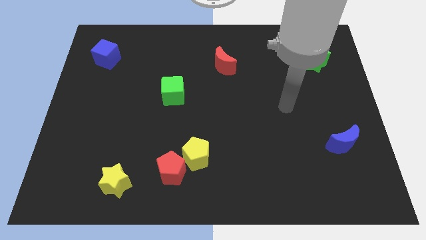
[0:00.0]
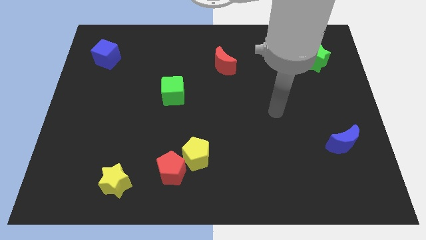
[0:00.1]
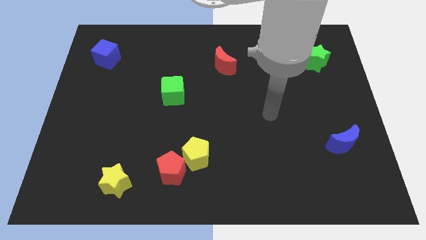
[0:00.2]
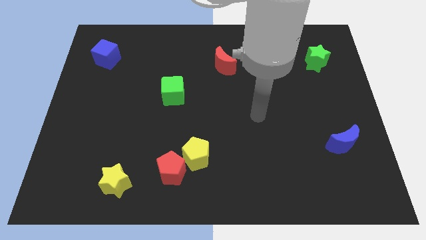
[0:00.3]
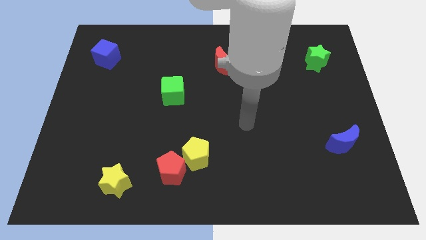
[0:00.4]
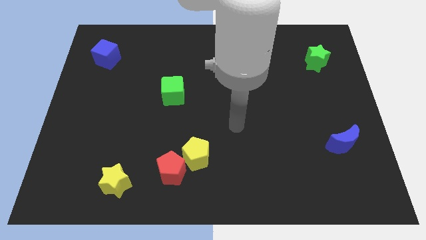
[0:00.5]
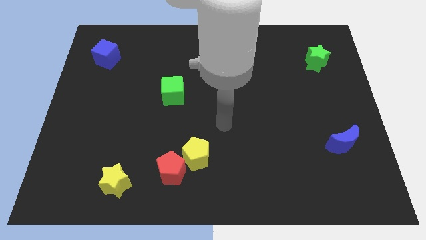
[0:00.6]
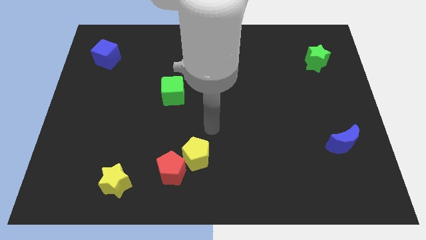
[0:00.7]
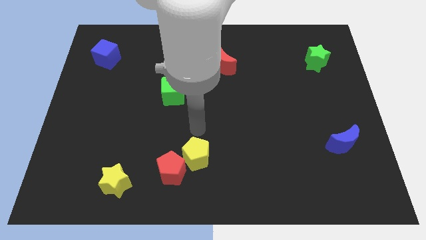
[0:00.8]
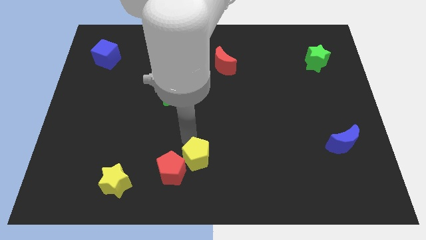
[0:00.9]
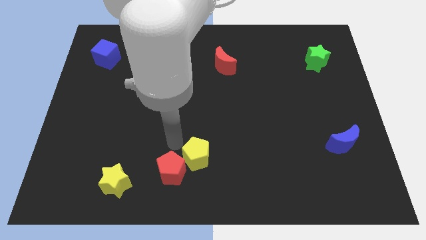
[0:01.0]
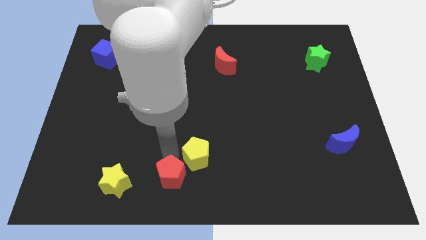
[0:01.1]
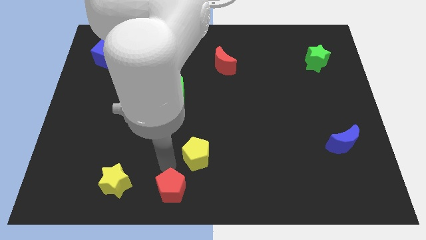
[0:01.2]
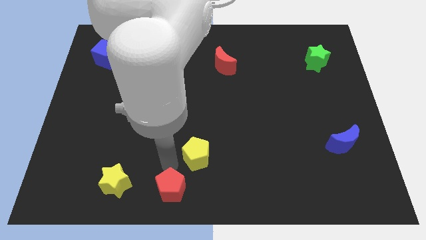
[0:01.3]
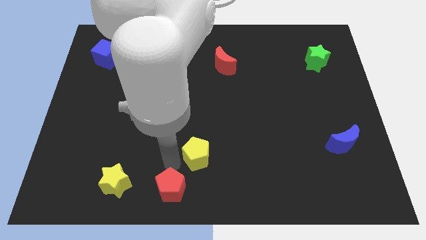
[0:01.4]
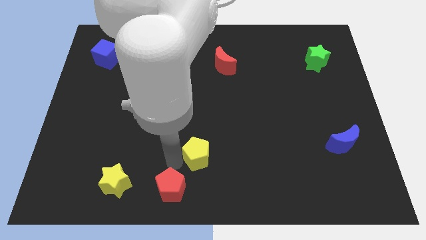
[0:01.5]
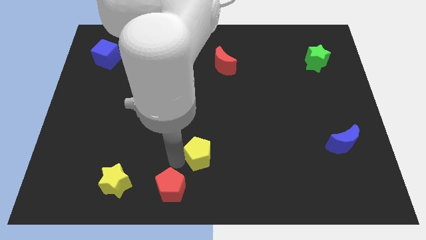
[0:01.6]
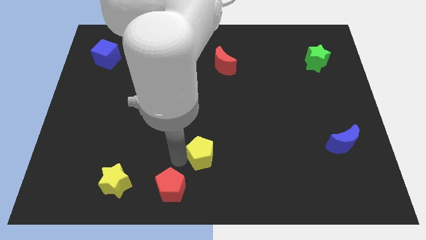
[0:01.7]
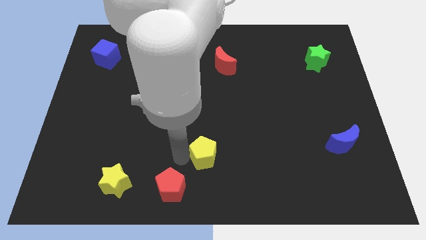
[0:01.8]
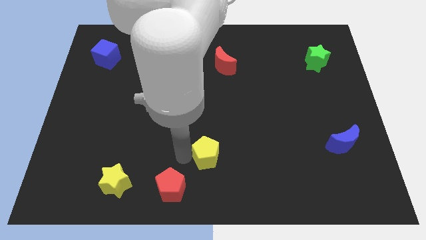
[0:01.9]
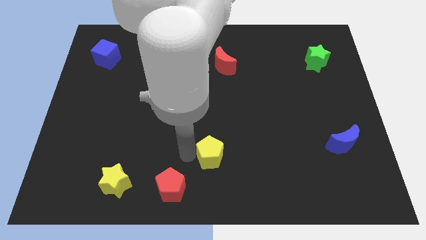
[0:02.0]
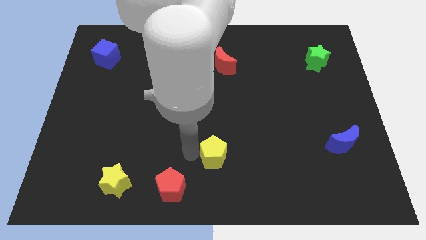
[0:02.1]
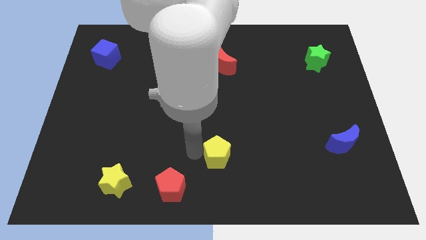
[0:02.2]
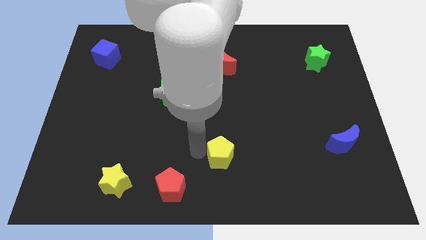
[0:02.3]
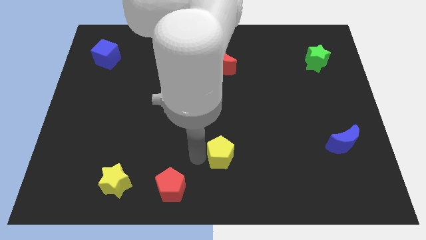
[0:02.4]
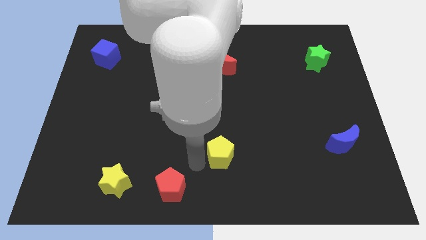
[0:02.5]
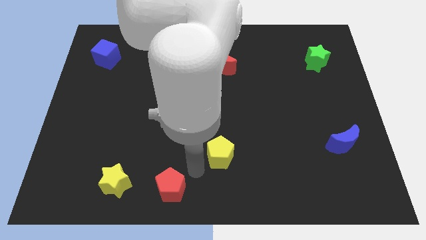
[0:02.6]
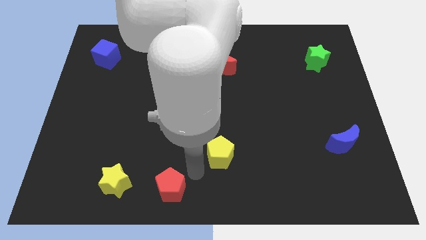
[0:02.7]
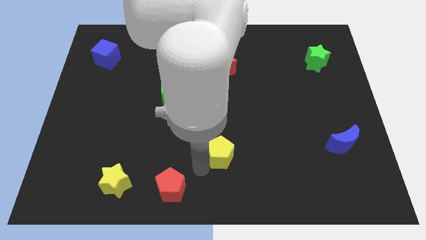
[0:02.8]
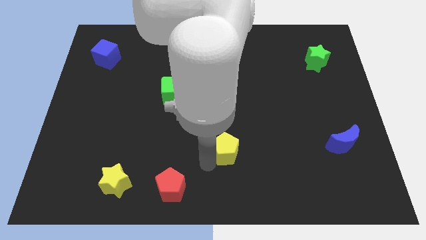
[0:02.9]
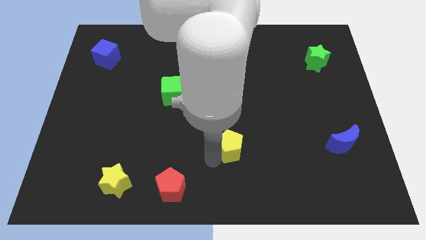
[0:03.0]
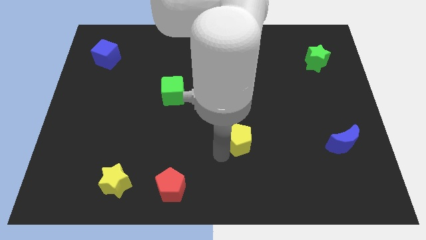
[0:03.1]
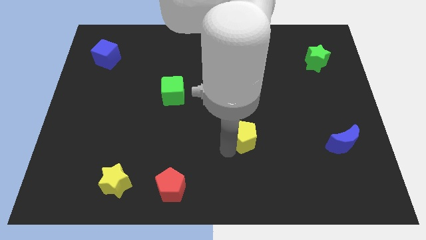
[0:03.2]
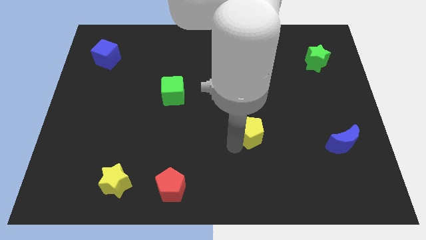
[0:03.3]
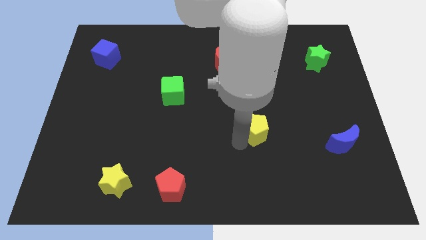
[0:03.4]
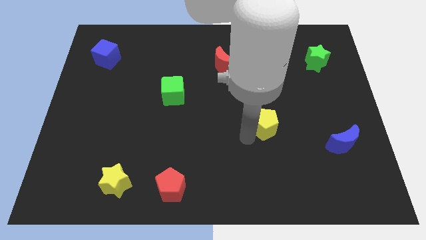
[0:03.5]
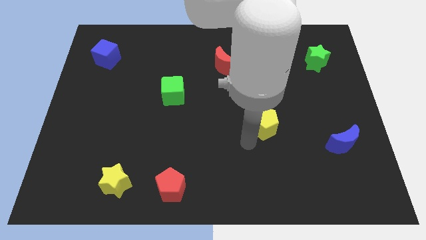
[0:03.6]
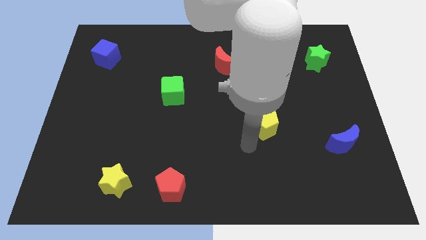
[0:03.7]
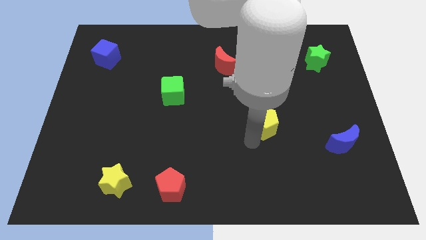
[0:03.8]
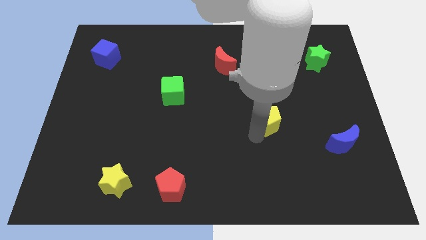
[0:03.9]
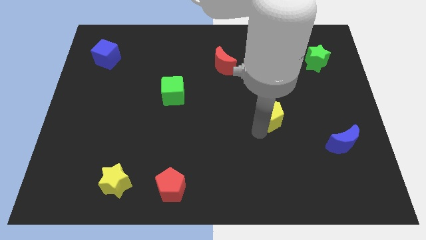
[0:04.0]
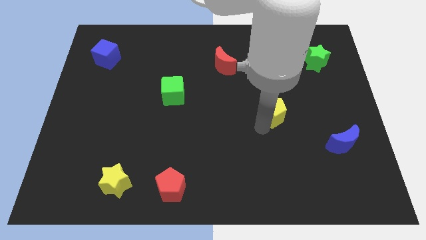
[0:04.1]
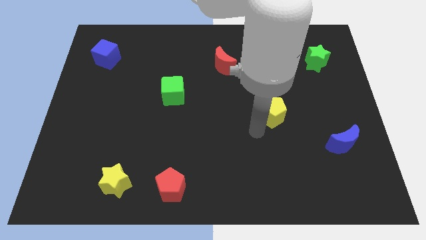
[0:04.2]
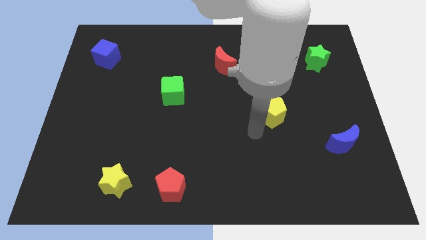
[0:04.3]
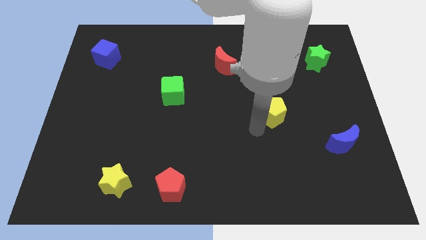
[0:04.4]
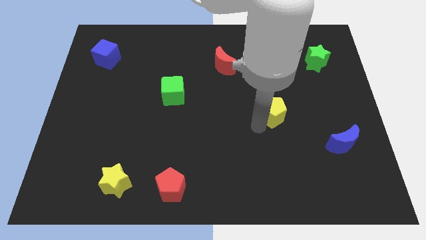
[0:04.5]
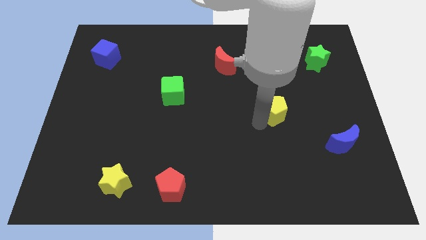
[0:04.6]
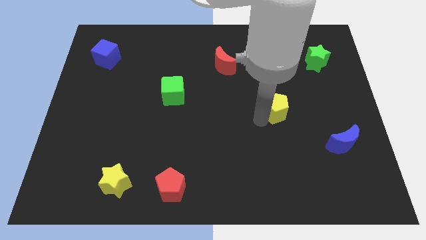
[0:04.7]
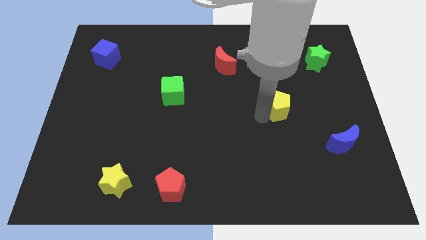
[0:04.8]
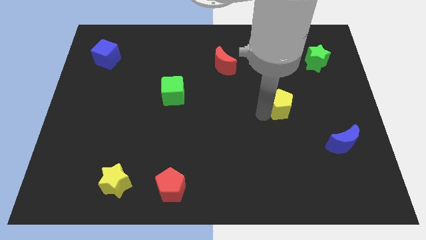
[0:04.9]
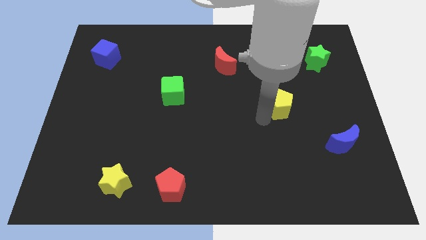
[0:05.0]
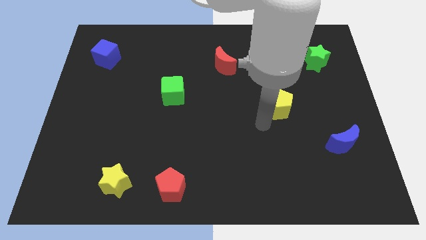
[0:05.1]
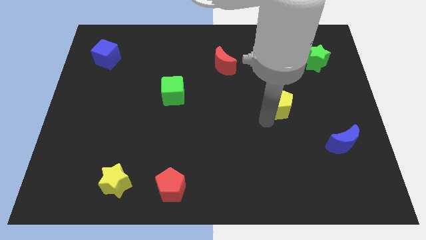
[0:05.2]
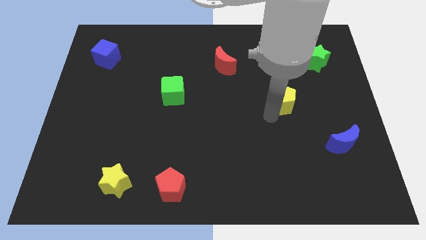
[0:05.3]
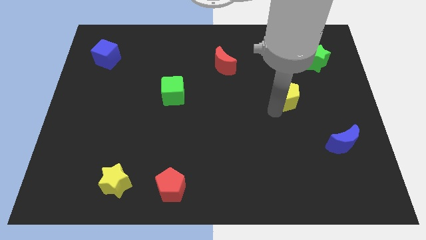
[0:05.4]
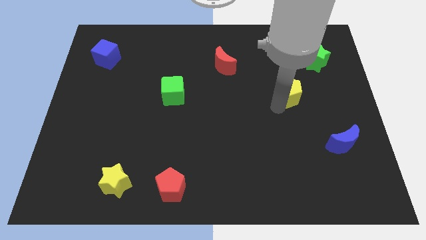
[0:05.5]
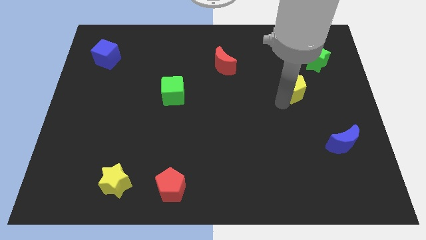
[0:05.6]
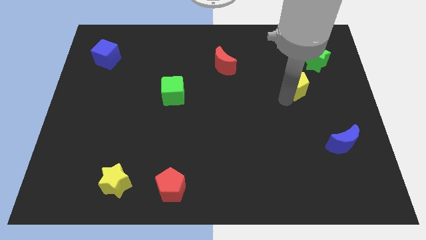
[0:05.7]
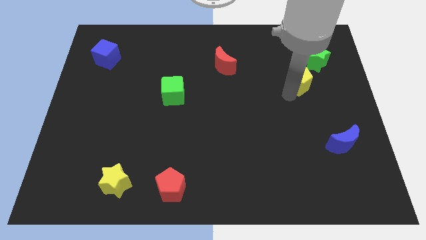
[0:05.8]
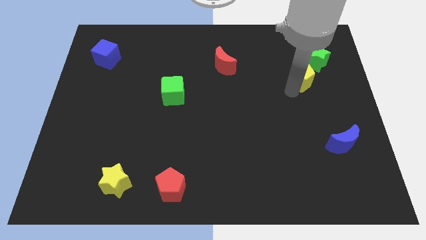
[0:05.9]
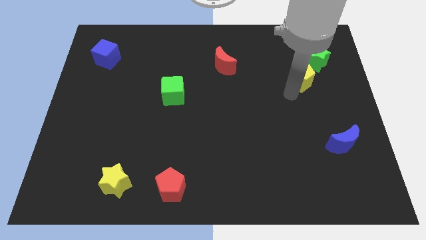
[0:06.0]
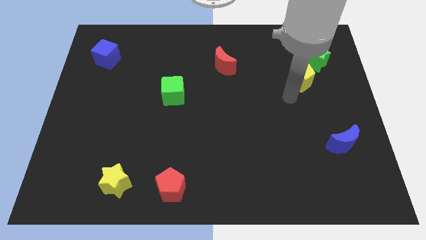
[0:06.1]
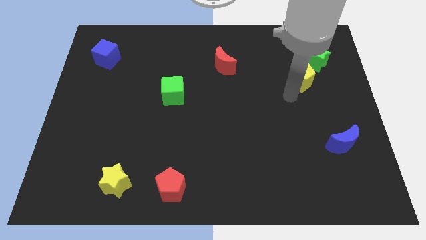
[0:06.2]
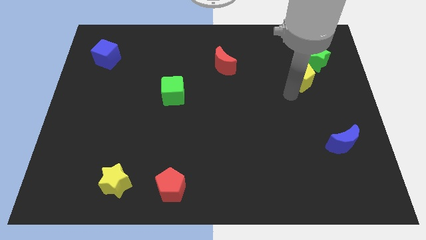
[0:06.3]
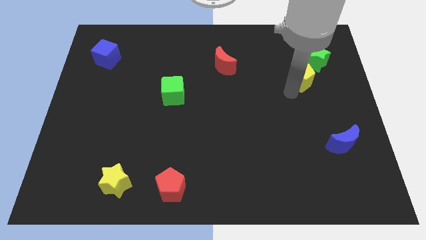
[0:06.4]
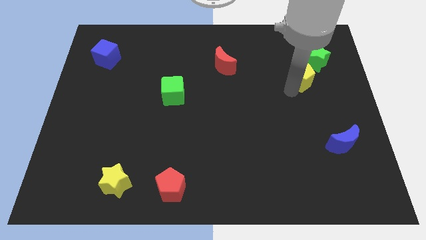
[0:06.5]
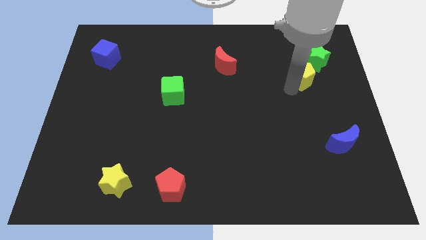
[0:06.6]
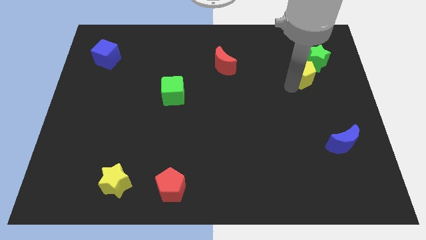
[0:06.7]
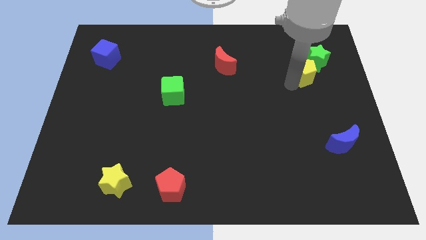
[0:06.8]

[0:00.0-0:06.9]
move the yellow pentagon to the green star

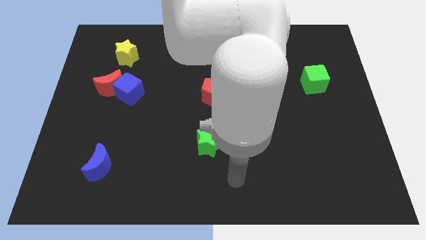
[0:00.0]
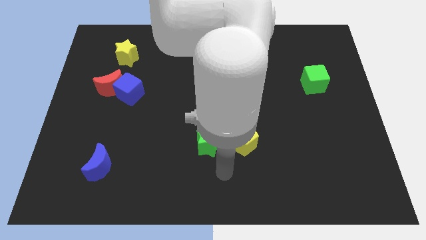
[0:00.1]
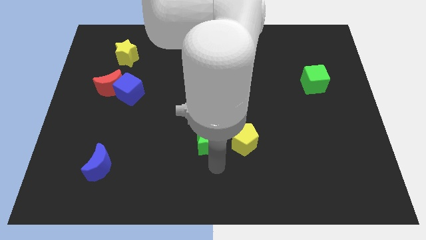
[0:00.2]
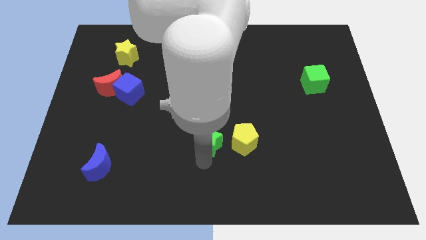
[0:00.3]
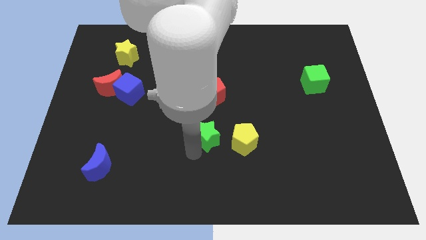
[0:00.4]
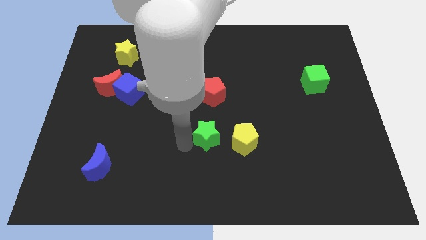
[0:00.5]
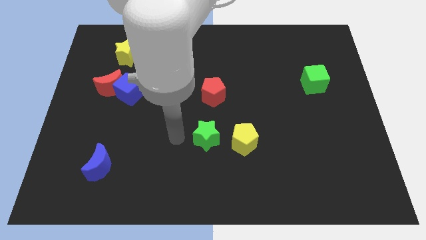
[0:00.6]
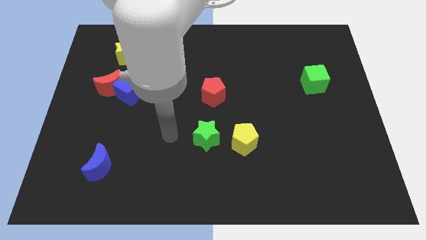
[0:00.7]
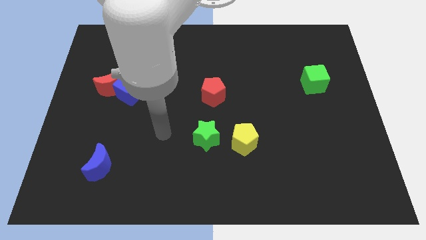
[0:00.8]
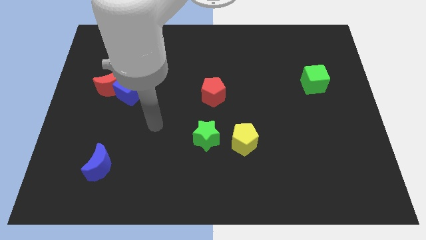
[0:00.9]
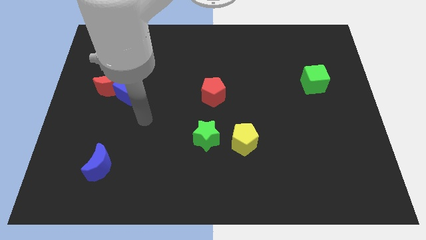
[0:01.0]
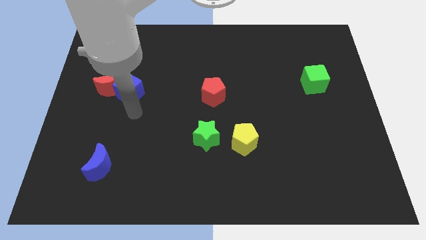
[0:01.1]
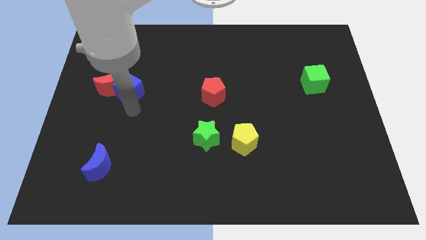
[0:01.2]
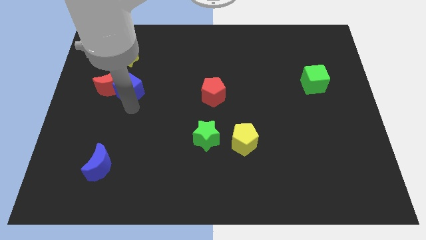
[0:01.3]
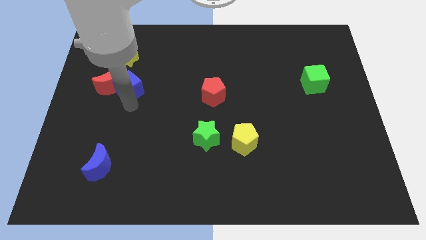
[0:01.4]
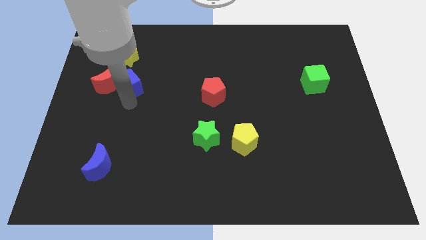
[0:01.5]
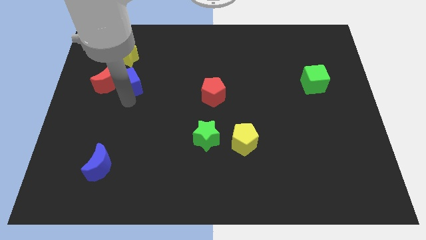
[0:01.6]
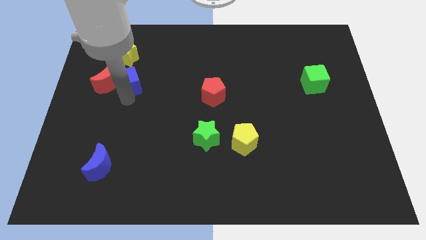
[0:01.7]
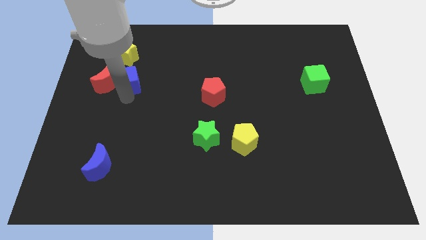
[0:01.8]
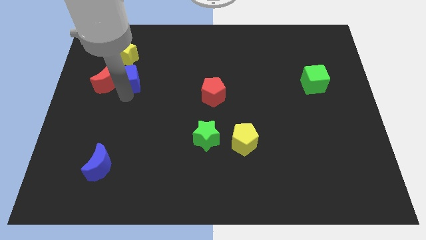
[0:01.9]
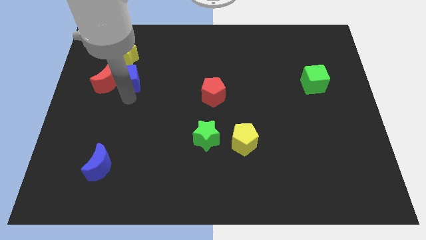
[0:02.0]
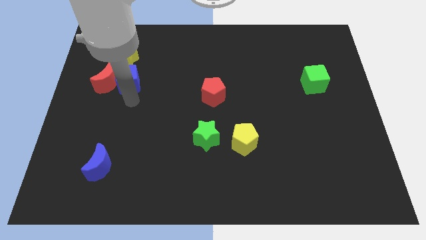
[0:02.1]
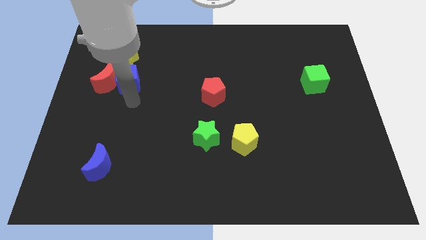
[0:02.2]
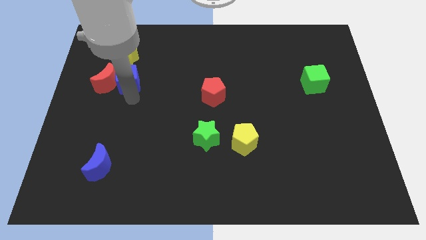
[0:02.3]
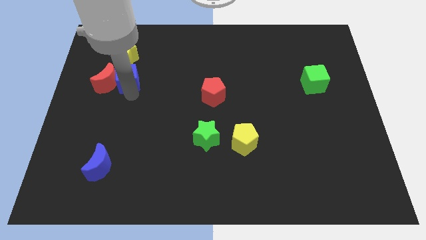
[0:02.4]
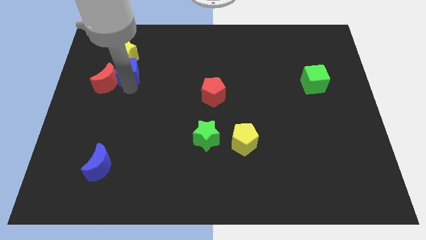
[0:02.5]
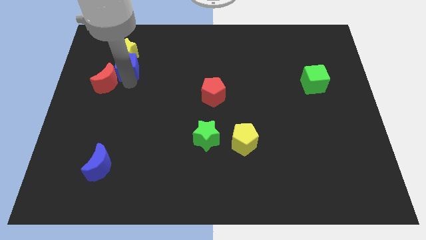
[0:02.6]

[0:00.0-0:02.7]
put the blue cube close to the yellow star
